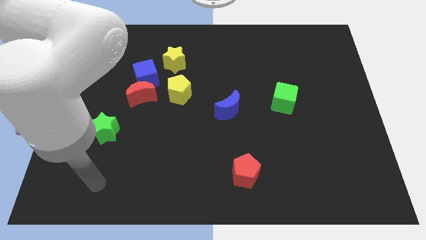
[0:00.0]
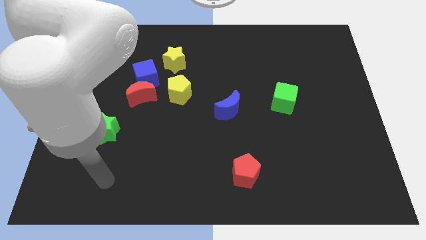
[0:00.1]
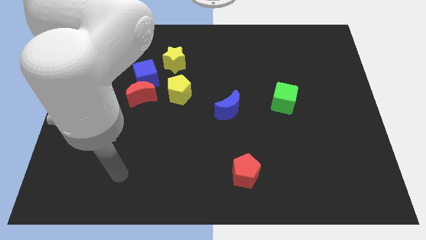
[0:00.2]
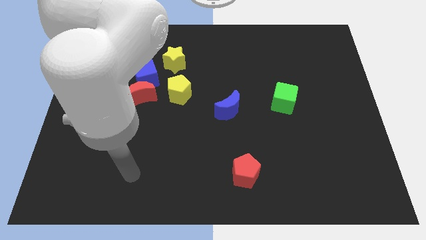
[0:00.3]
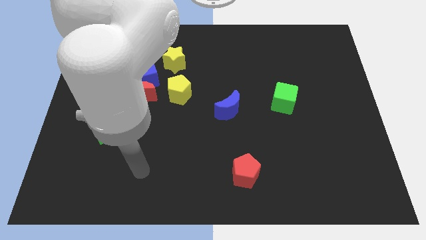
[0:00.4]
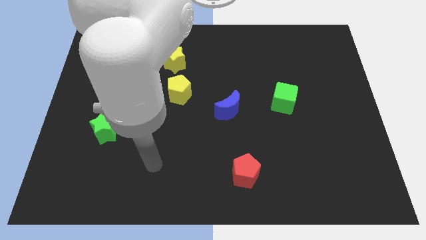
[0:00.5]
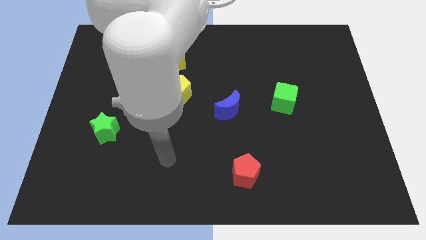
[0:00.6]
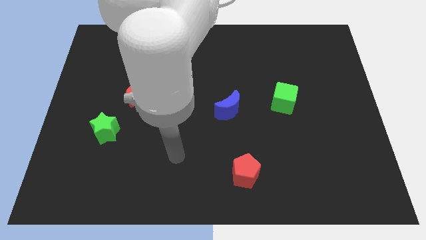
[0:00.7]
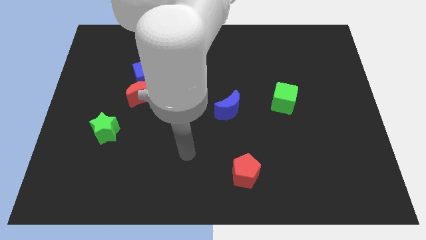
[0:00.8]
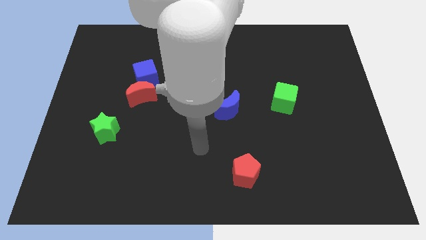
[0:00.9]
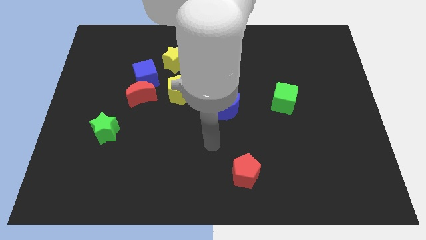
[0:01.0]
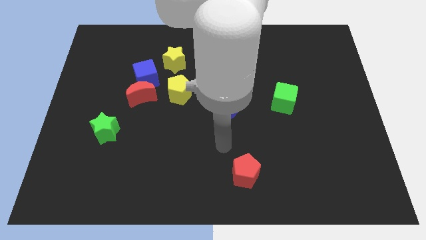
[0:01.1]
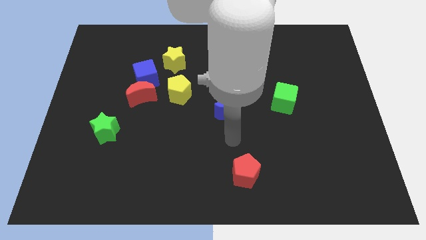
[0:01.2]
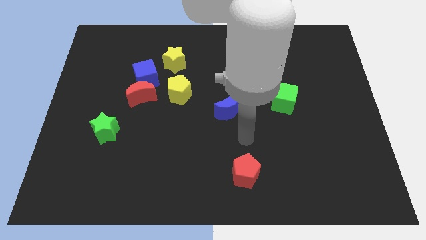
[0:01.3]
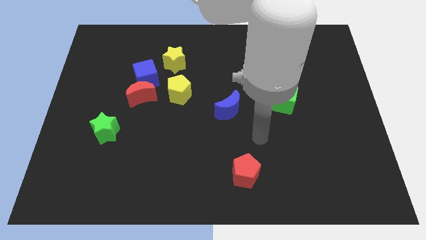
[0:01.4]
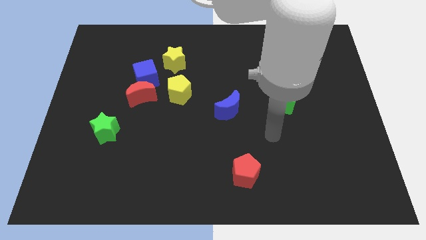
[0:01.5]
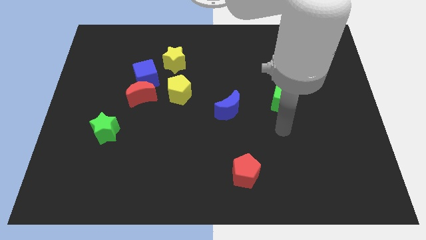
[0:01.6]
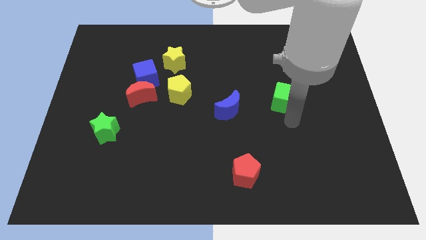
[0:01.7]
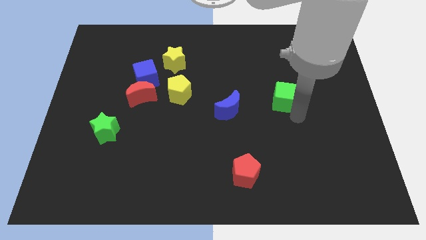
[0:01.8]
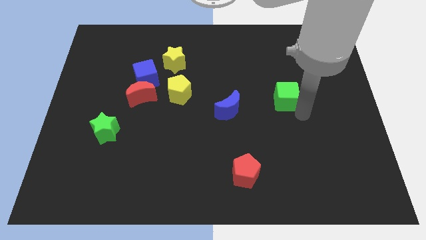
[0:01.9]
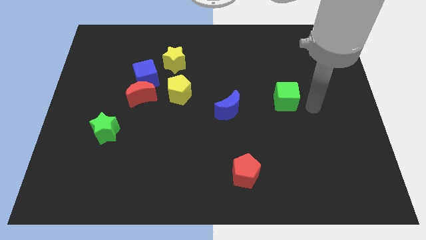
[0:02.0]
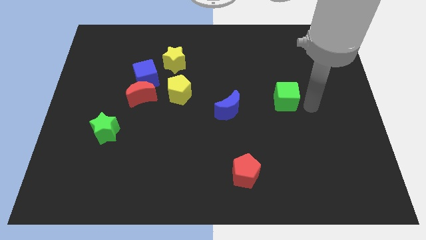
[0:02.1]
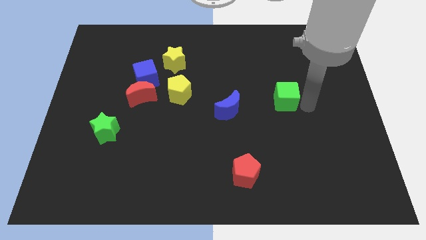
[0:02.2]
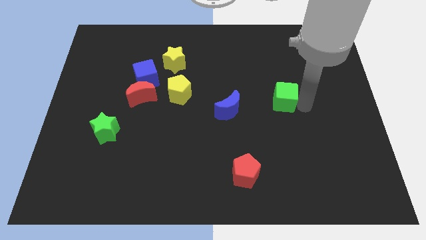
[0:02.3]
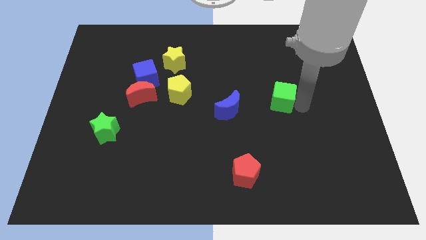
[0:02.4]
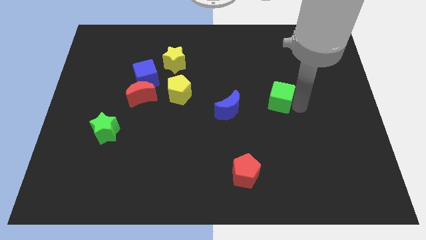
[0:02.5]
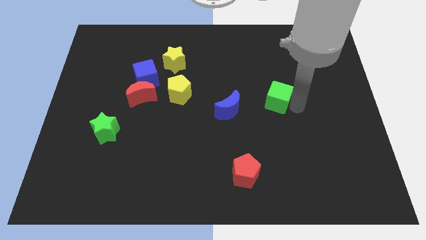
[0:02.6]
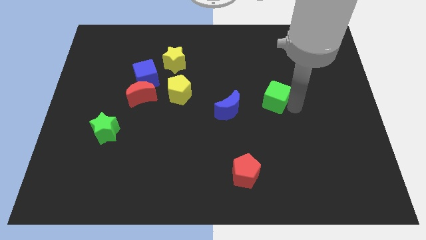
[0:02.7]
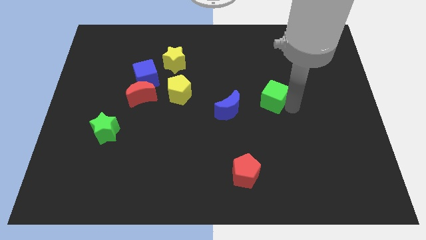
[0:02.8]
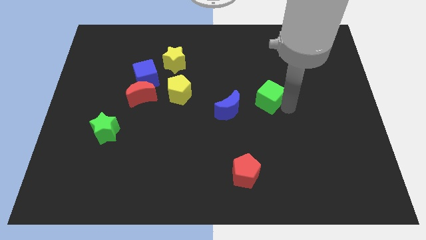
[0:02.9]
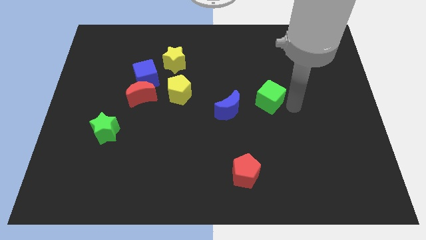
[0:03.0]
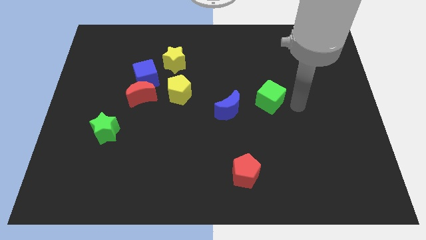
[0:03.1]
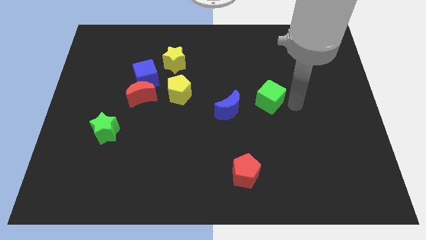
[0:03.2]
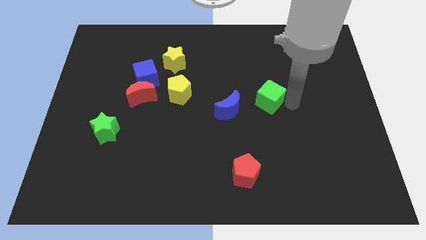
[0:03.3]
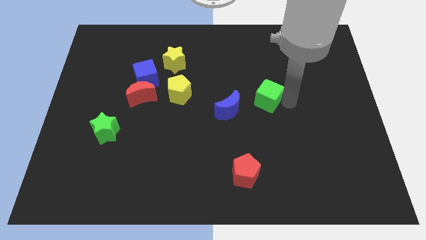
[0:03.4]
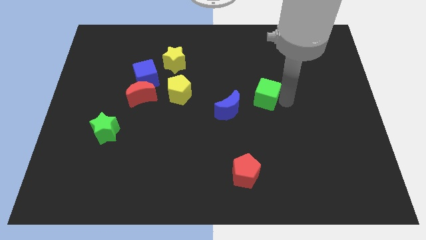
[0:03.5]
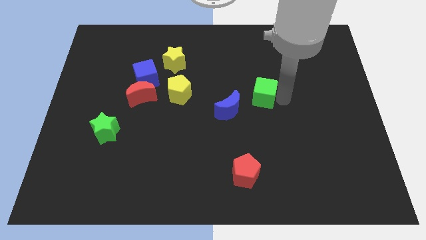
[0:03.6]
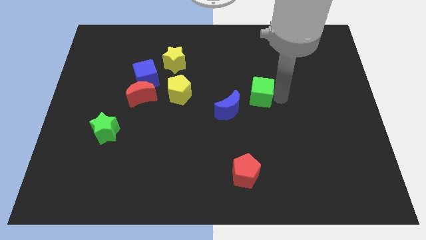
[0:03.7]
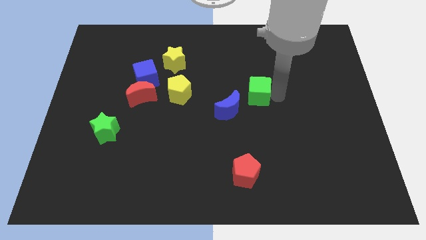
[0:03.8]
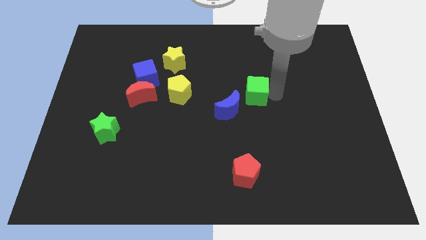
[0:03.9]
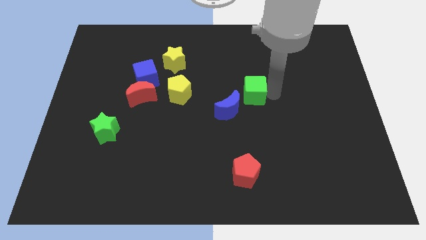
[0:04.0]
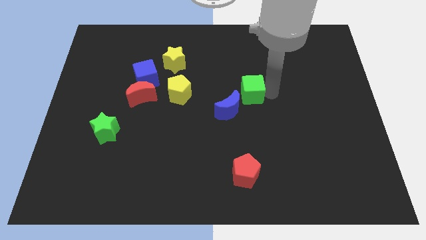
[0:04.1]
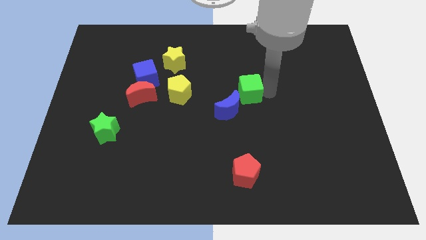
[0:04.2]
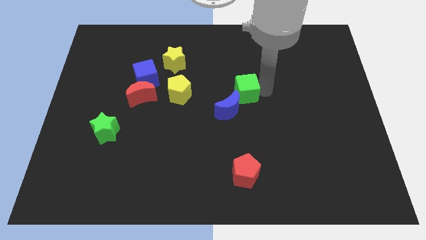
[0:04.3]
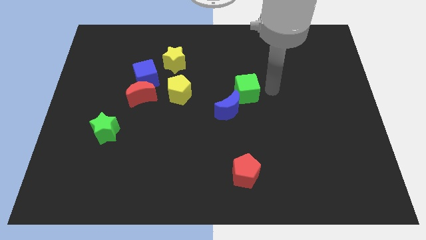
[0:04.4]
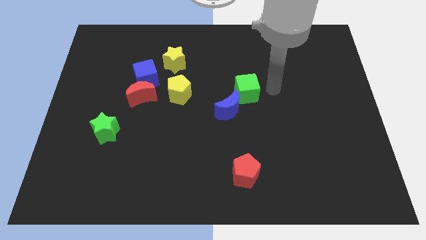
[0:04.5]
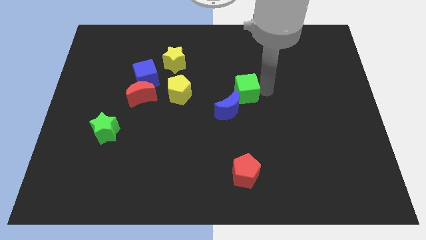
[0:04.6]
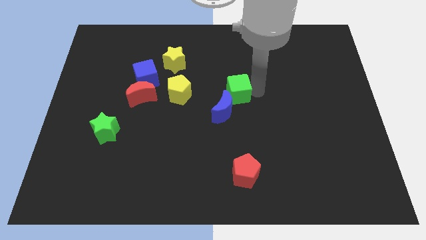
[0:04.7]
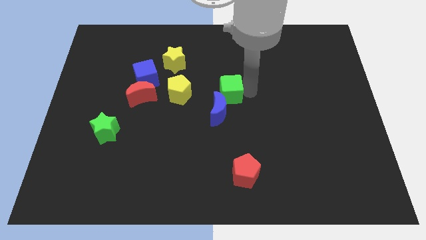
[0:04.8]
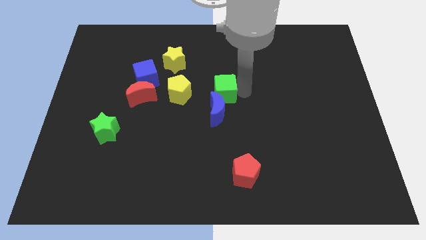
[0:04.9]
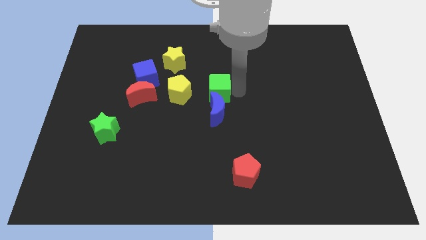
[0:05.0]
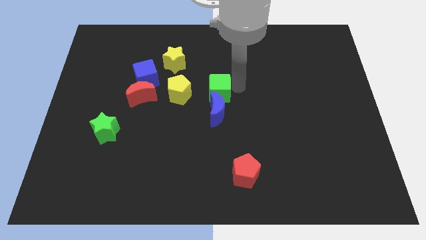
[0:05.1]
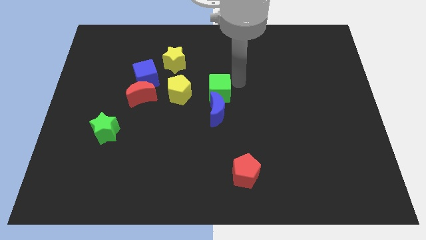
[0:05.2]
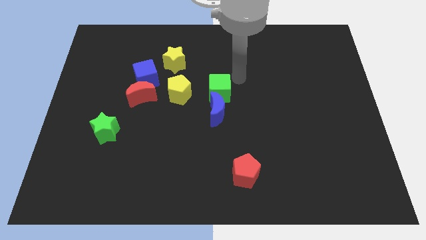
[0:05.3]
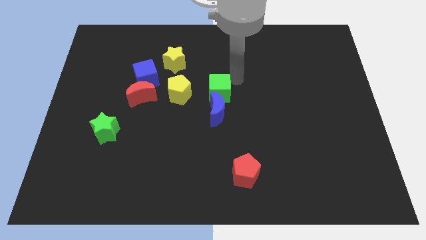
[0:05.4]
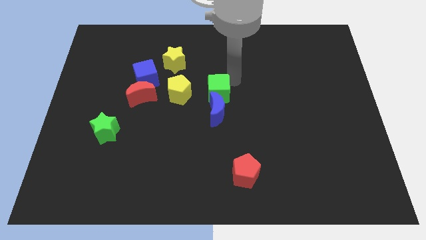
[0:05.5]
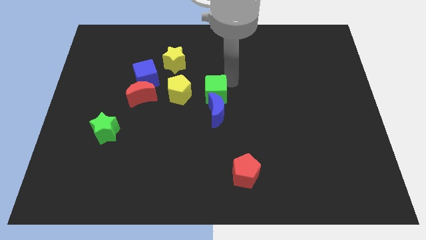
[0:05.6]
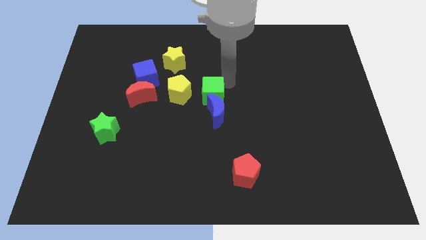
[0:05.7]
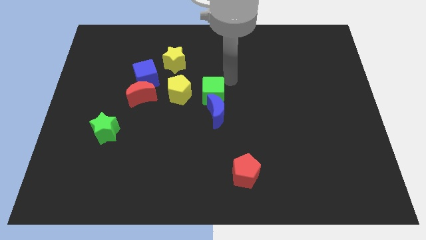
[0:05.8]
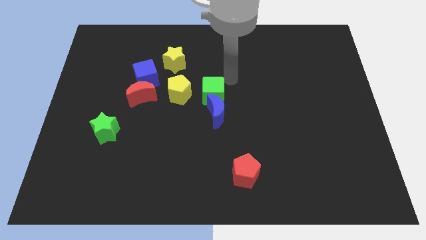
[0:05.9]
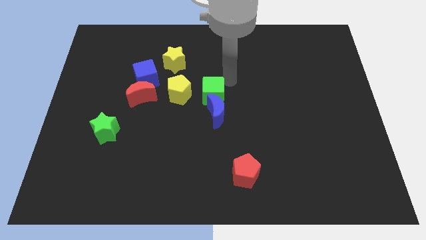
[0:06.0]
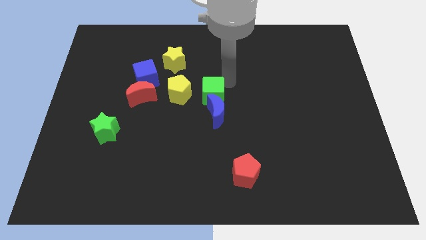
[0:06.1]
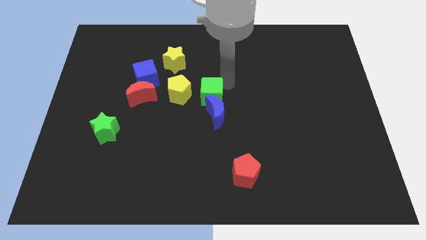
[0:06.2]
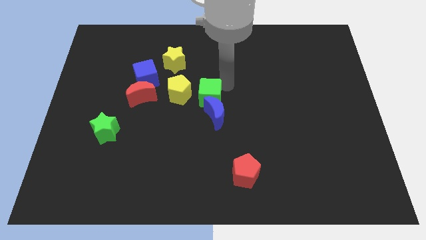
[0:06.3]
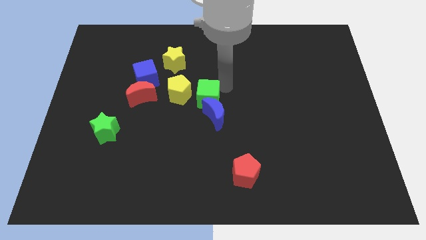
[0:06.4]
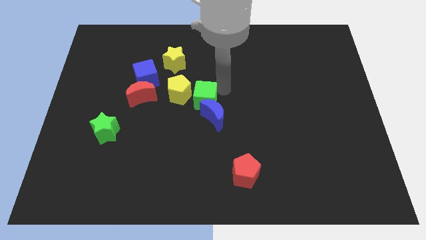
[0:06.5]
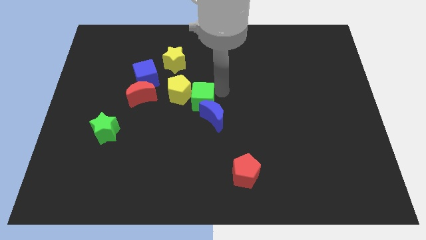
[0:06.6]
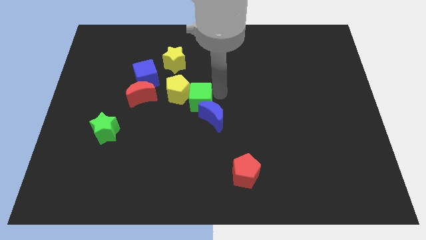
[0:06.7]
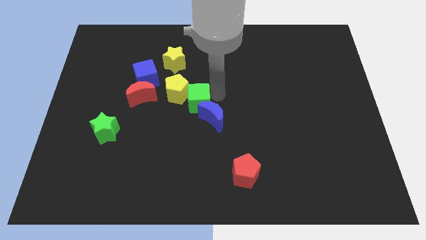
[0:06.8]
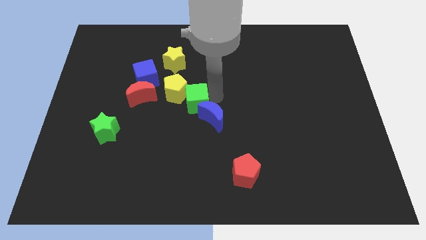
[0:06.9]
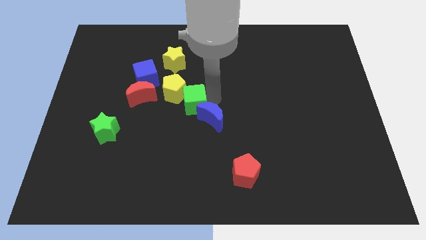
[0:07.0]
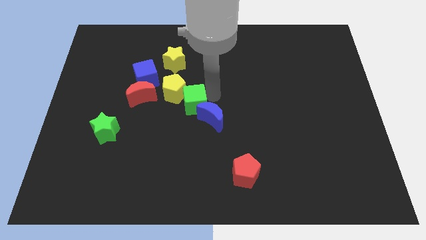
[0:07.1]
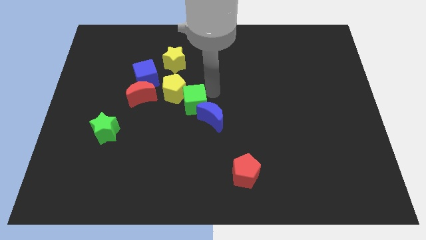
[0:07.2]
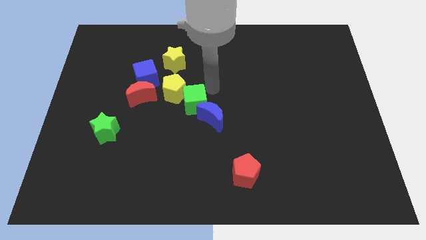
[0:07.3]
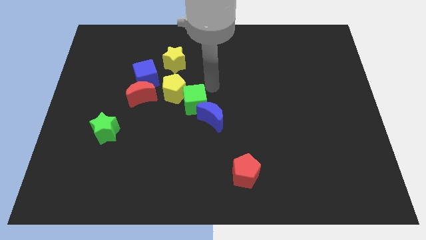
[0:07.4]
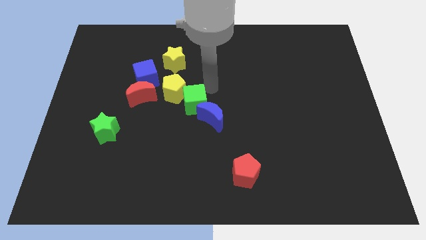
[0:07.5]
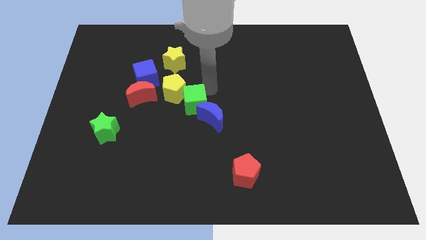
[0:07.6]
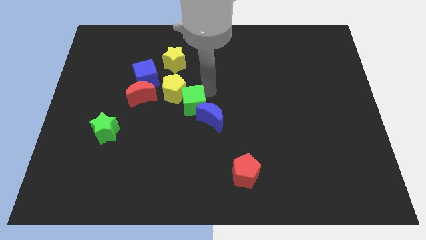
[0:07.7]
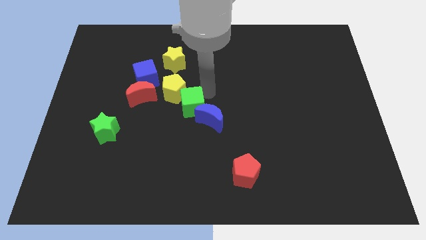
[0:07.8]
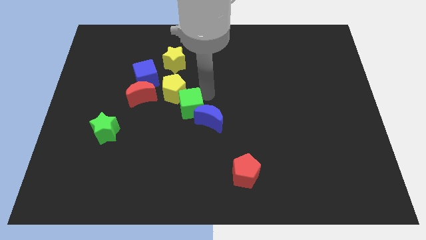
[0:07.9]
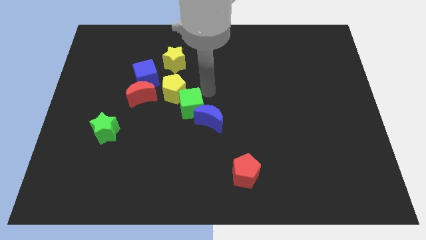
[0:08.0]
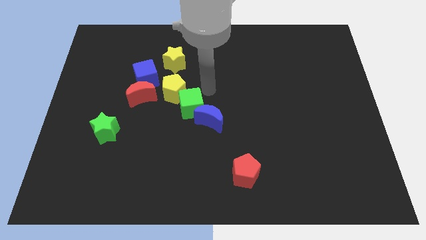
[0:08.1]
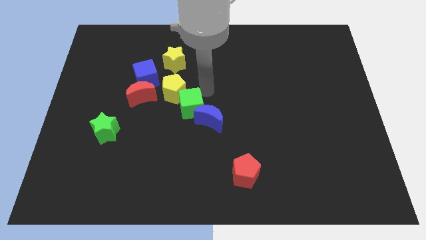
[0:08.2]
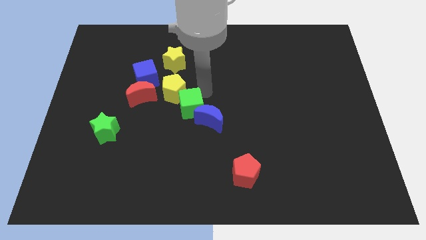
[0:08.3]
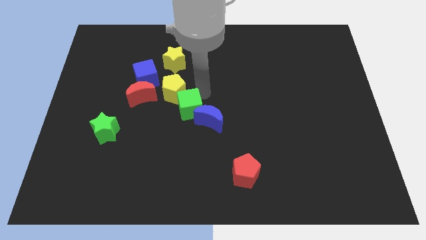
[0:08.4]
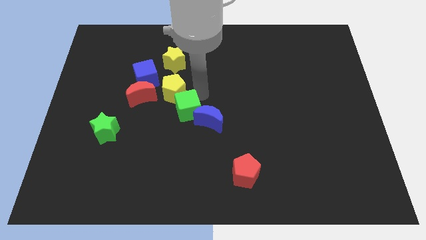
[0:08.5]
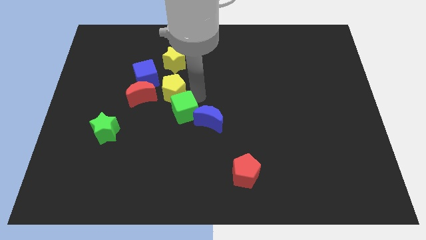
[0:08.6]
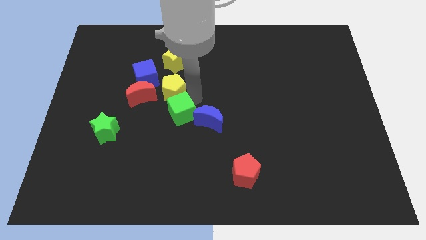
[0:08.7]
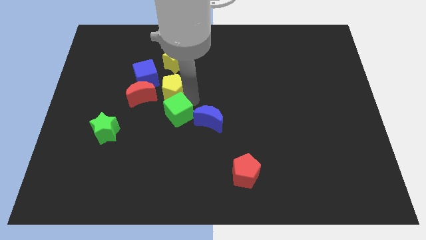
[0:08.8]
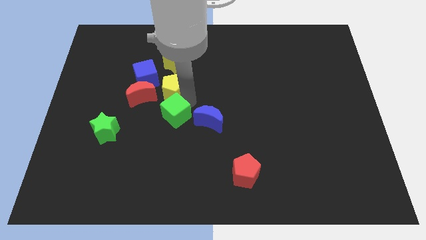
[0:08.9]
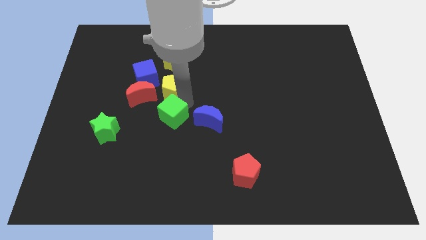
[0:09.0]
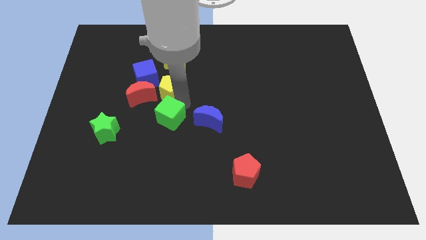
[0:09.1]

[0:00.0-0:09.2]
move the green cube right of the green star
